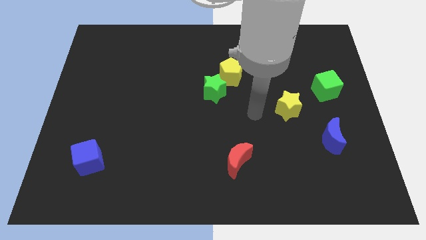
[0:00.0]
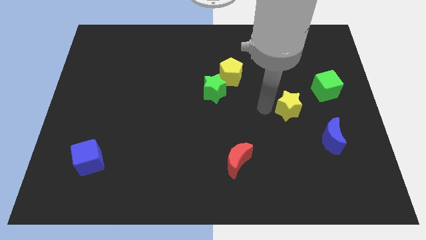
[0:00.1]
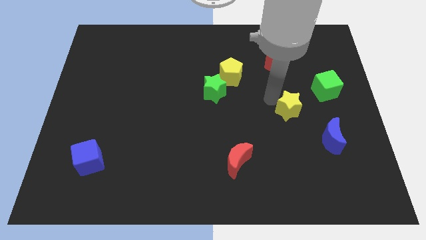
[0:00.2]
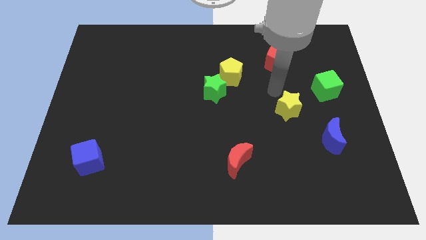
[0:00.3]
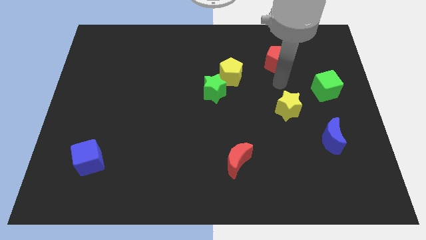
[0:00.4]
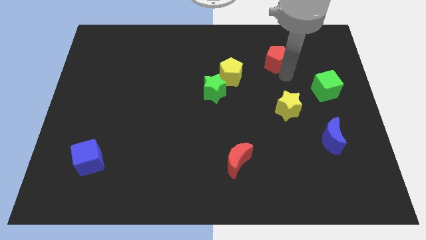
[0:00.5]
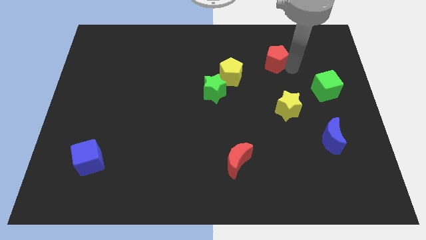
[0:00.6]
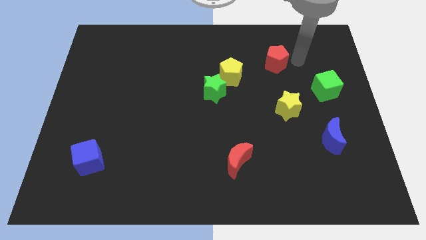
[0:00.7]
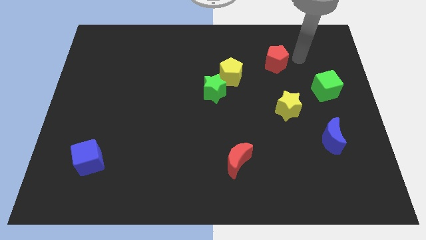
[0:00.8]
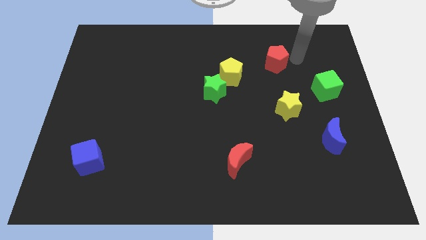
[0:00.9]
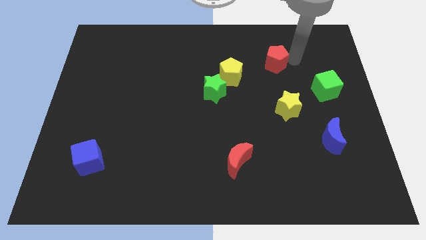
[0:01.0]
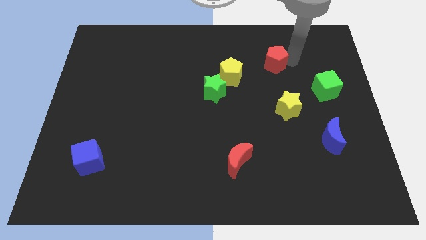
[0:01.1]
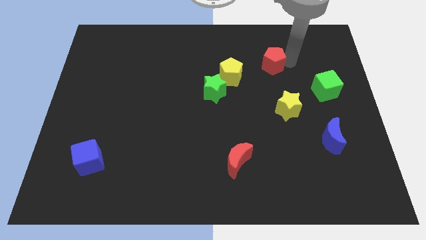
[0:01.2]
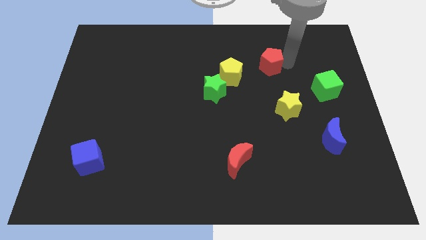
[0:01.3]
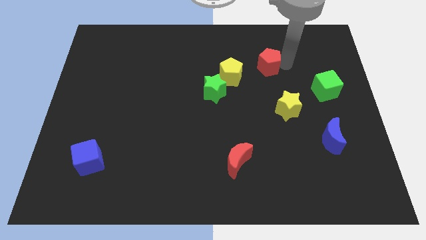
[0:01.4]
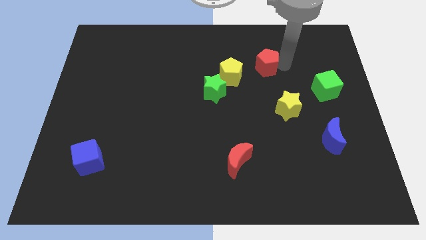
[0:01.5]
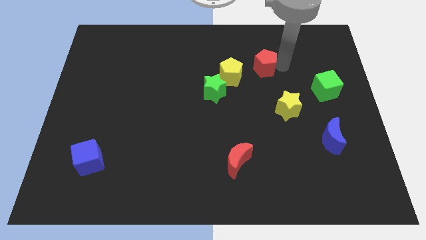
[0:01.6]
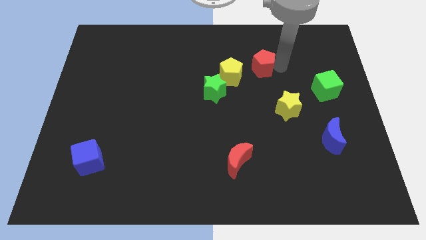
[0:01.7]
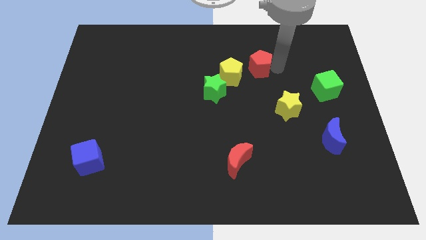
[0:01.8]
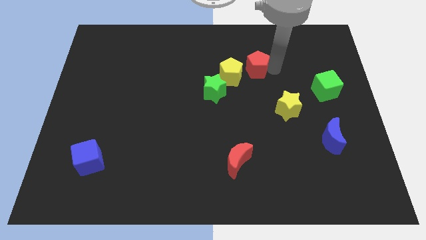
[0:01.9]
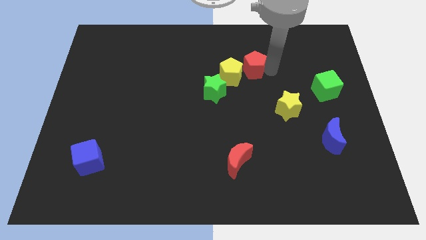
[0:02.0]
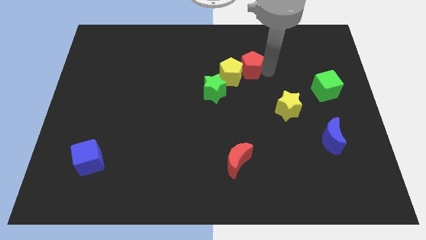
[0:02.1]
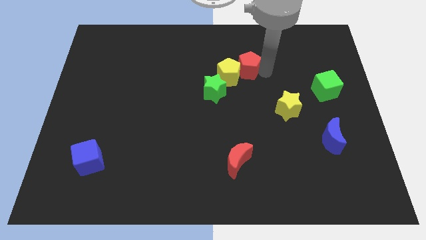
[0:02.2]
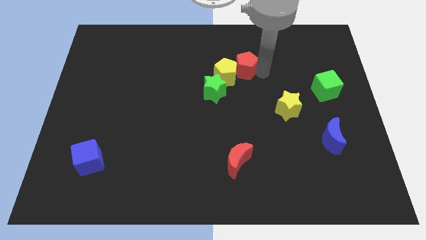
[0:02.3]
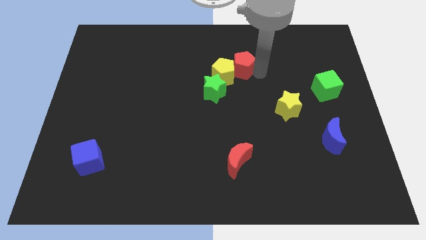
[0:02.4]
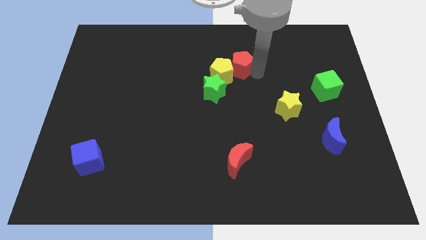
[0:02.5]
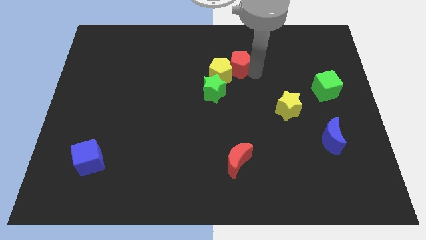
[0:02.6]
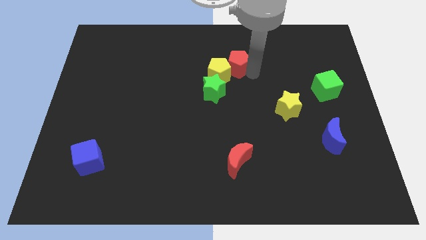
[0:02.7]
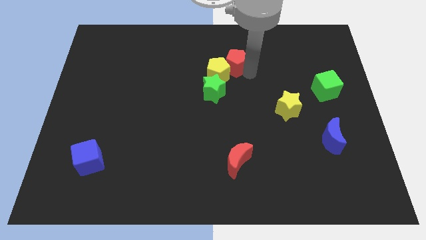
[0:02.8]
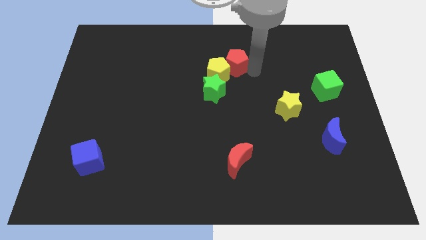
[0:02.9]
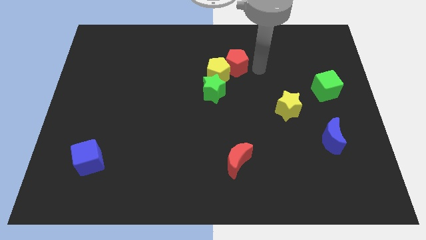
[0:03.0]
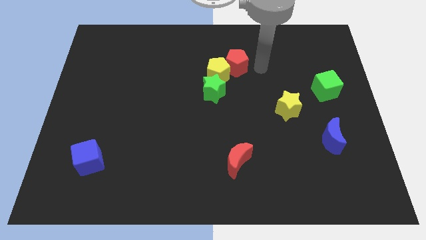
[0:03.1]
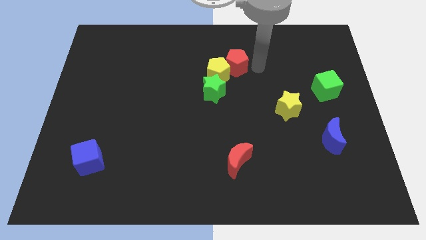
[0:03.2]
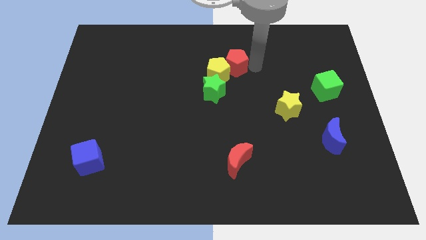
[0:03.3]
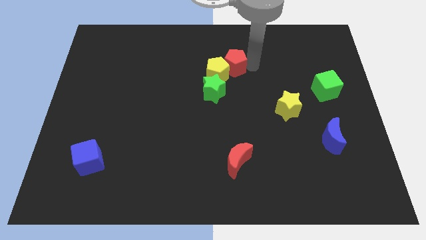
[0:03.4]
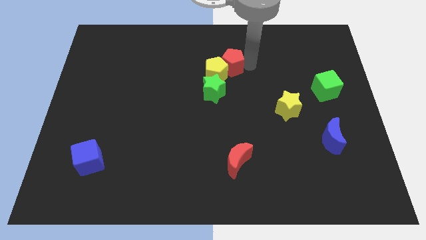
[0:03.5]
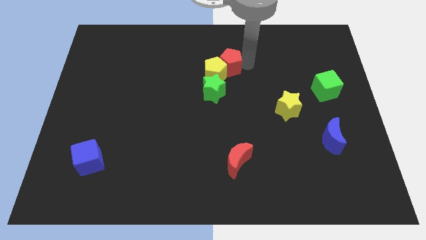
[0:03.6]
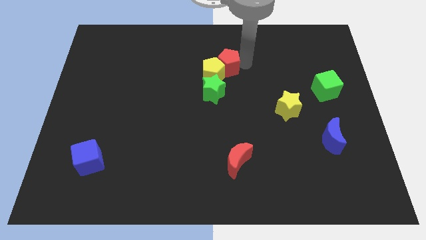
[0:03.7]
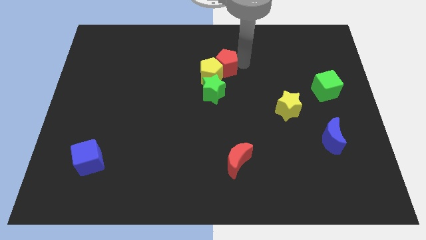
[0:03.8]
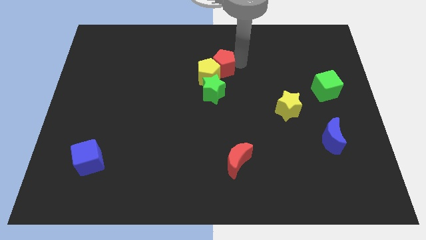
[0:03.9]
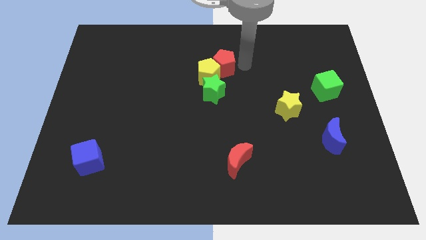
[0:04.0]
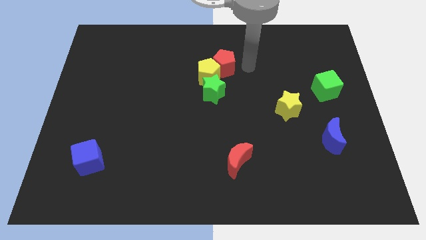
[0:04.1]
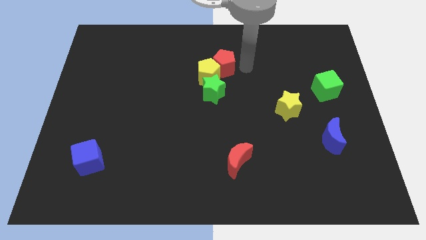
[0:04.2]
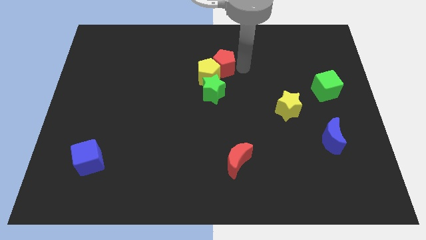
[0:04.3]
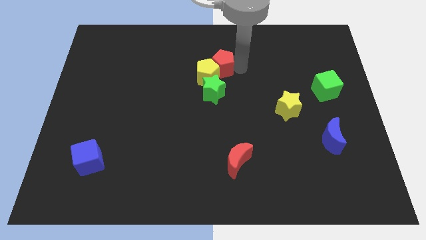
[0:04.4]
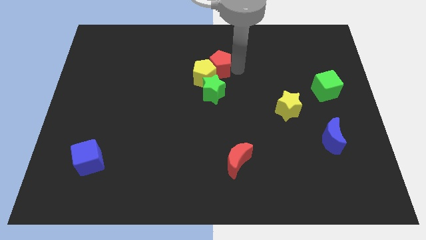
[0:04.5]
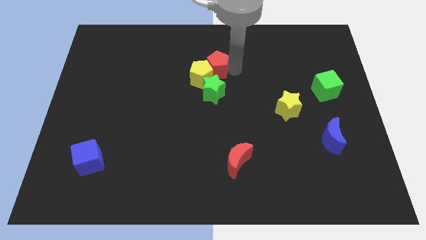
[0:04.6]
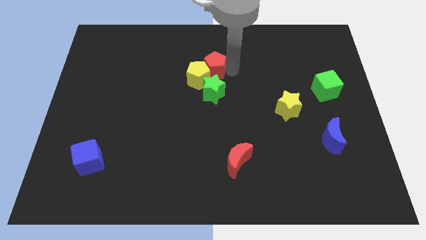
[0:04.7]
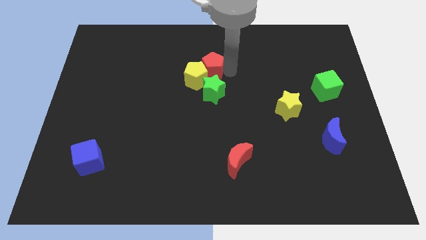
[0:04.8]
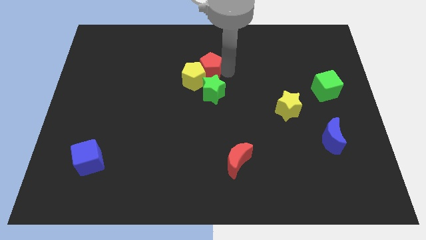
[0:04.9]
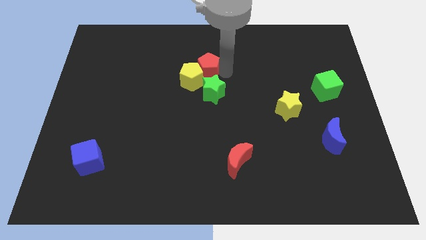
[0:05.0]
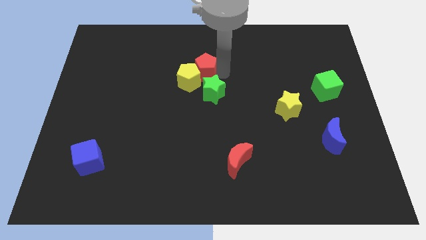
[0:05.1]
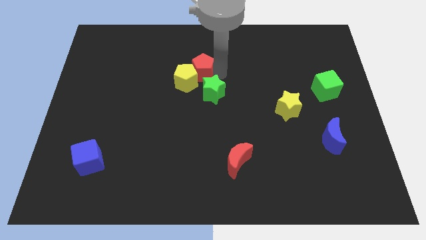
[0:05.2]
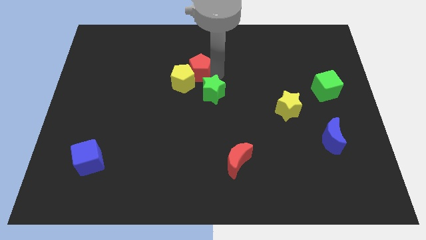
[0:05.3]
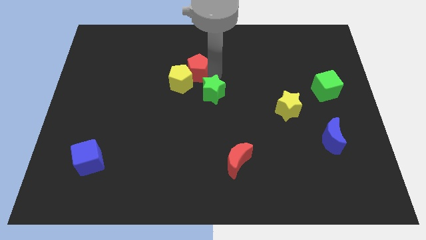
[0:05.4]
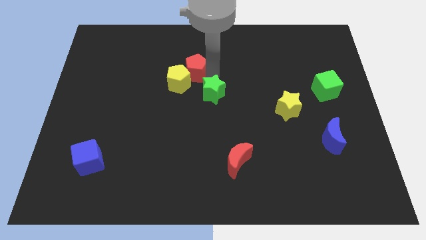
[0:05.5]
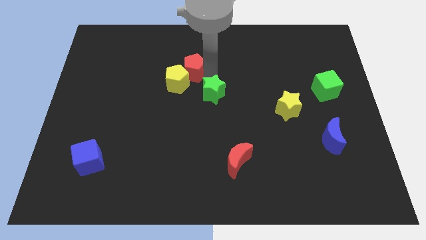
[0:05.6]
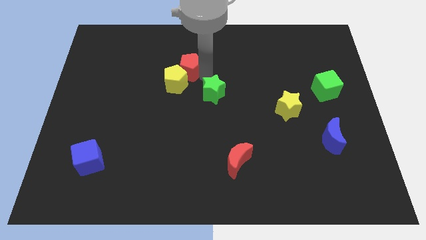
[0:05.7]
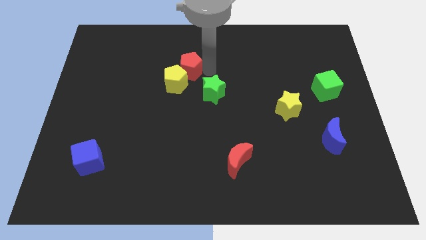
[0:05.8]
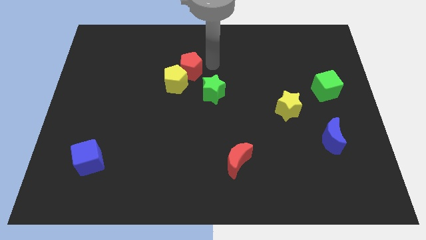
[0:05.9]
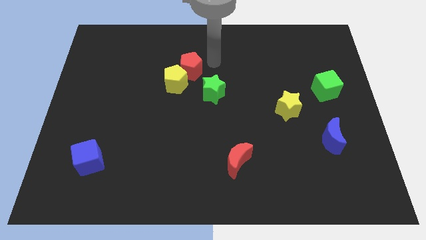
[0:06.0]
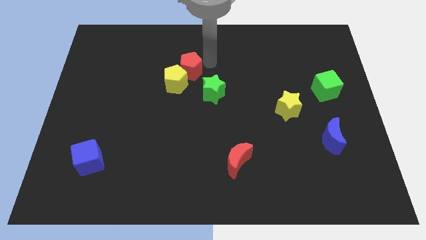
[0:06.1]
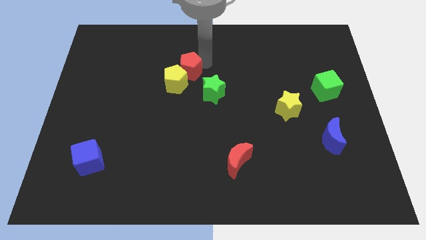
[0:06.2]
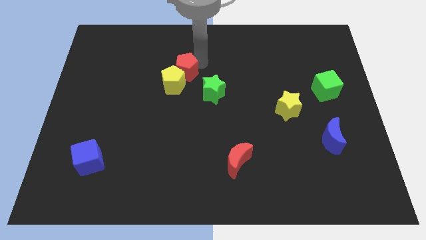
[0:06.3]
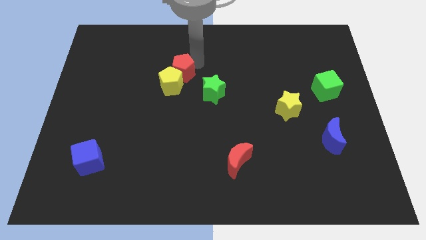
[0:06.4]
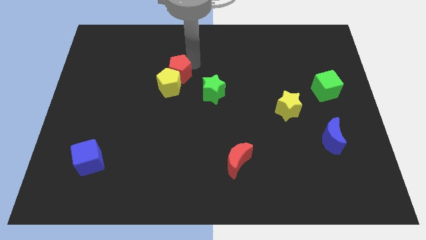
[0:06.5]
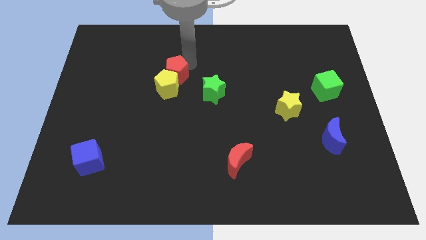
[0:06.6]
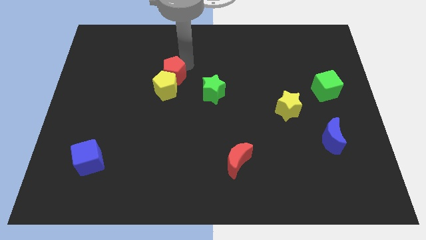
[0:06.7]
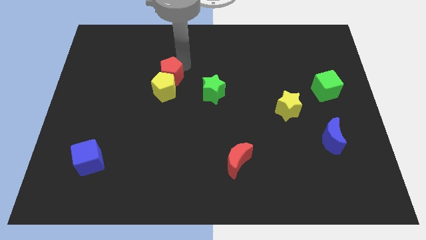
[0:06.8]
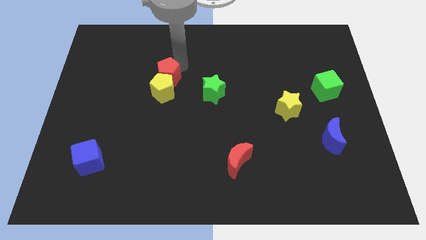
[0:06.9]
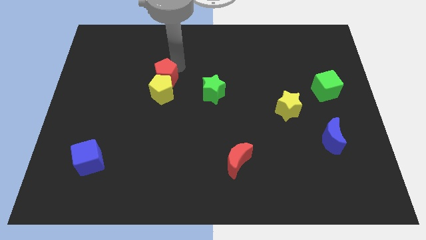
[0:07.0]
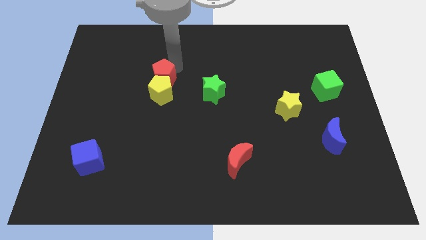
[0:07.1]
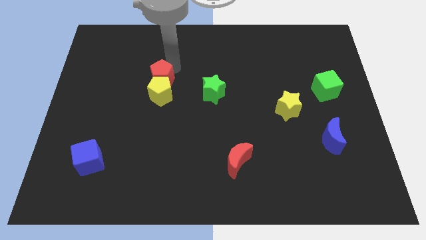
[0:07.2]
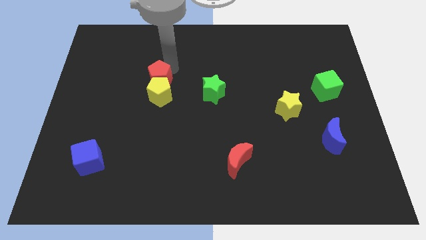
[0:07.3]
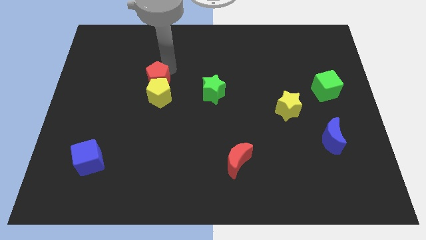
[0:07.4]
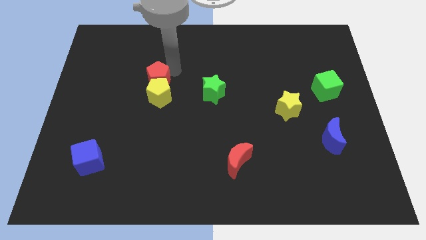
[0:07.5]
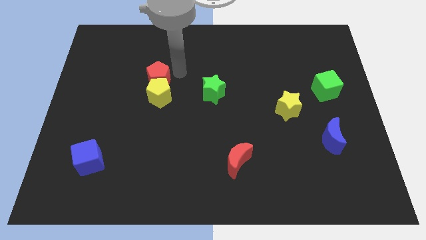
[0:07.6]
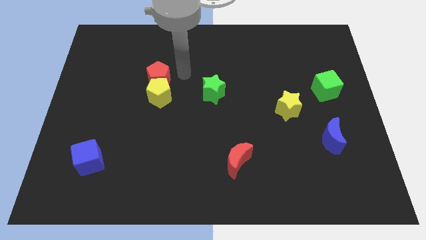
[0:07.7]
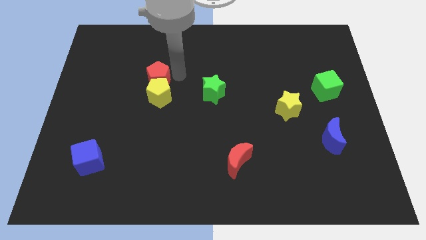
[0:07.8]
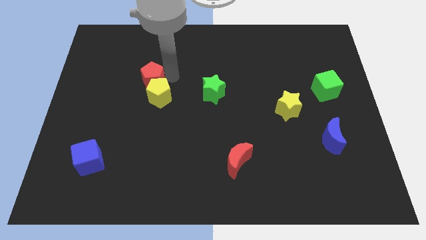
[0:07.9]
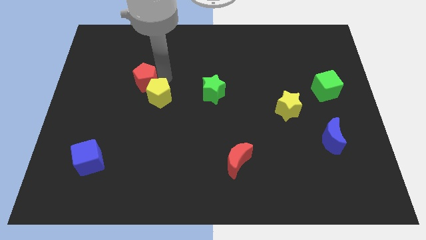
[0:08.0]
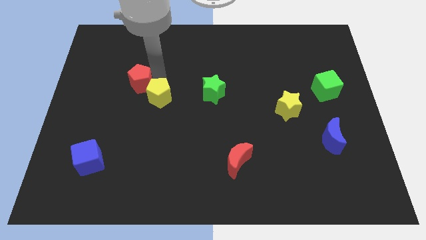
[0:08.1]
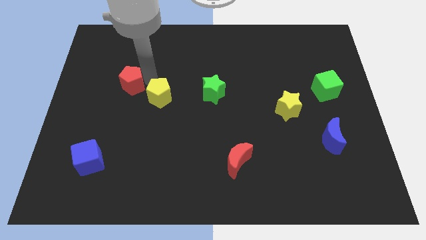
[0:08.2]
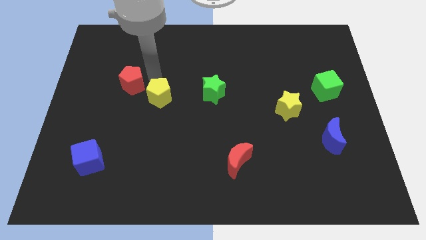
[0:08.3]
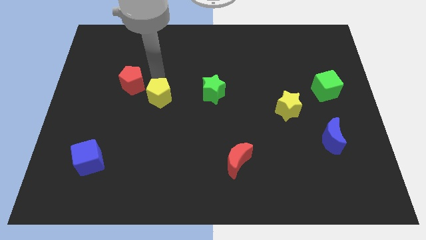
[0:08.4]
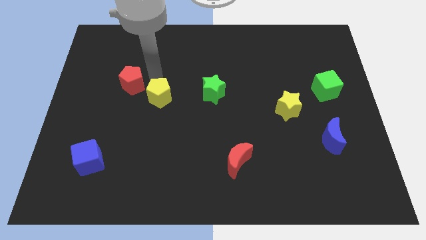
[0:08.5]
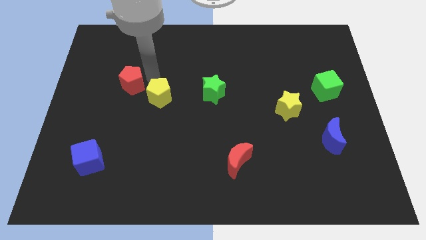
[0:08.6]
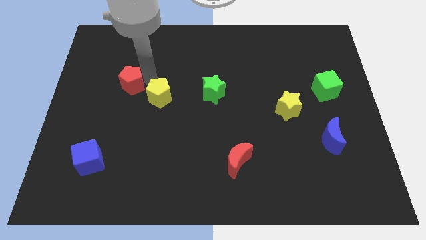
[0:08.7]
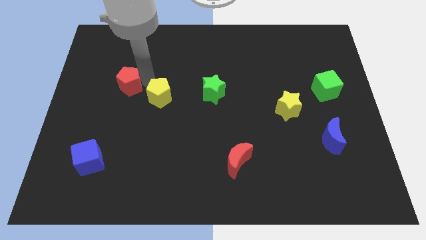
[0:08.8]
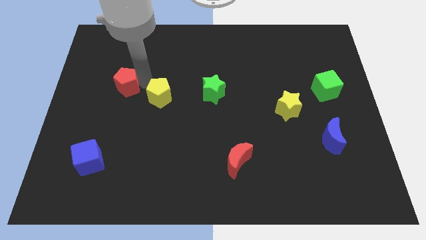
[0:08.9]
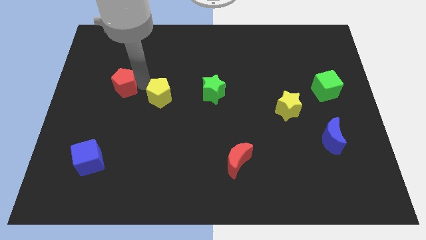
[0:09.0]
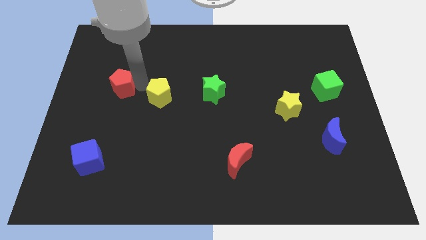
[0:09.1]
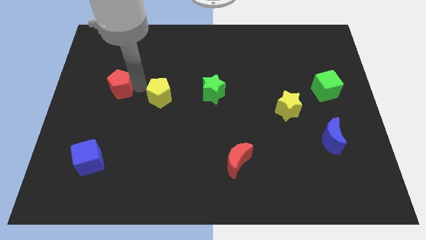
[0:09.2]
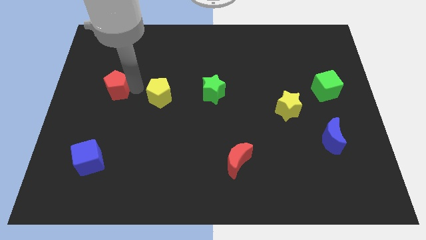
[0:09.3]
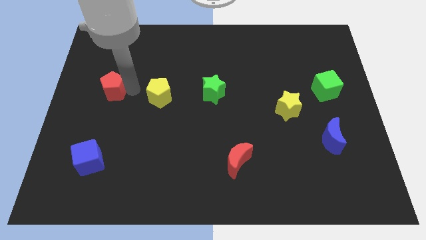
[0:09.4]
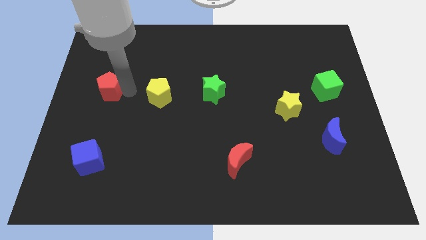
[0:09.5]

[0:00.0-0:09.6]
put the red pentagon to the center left
